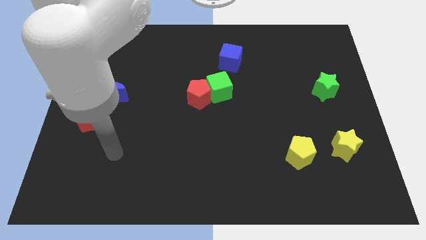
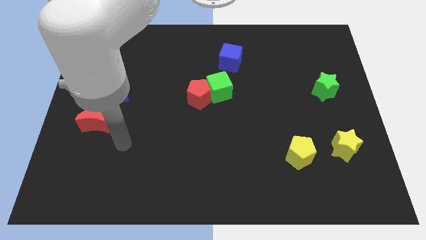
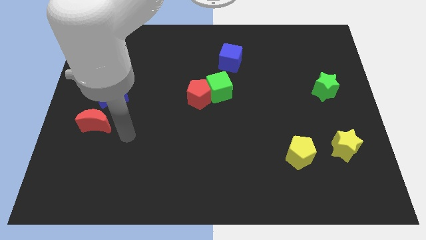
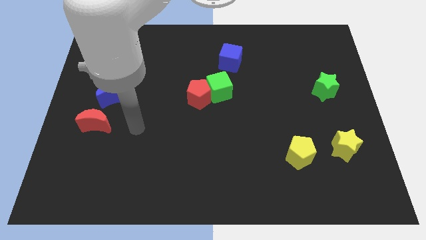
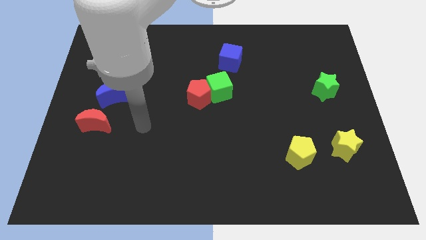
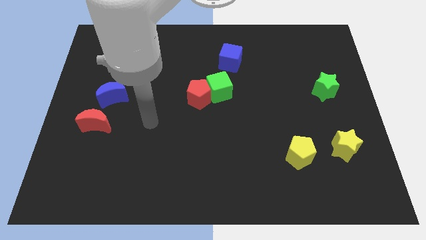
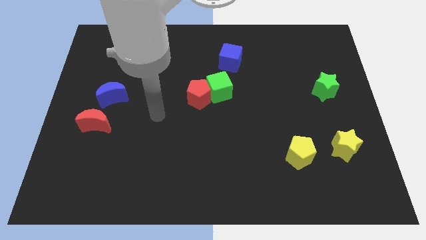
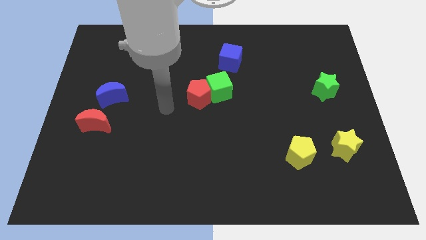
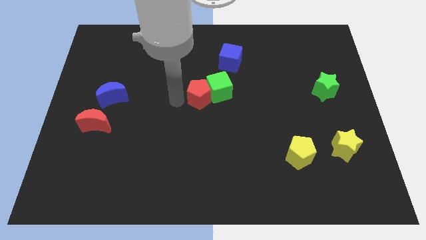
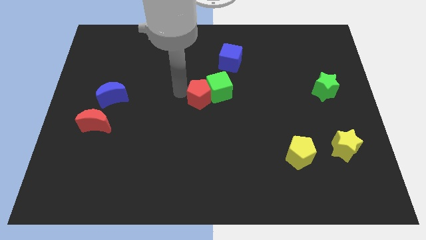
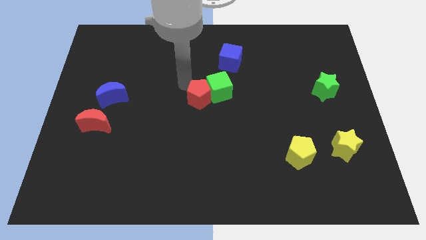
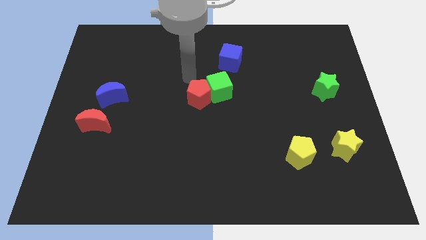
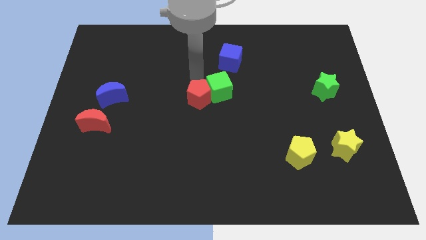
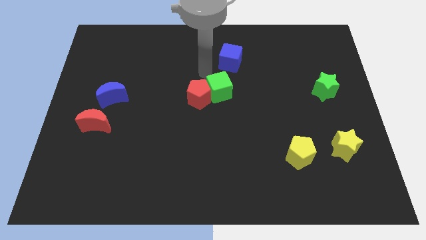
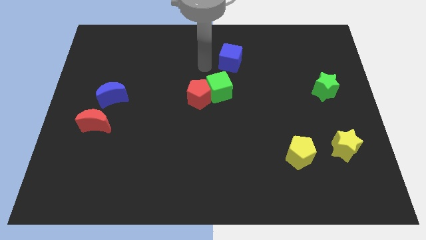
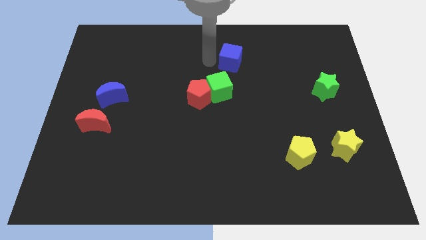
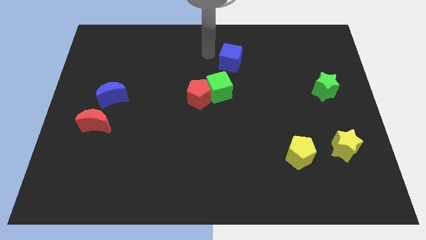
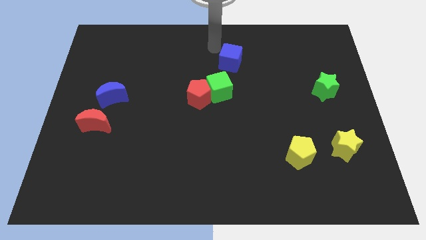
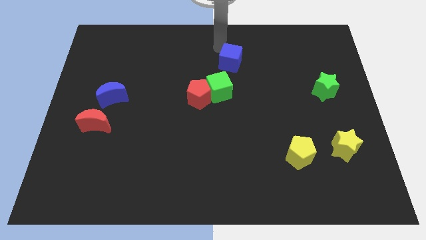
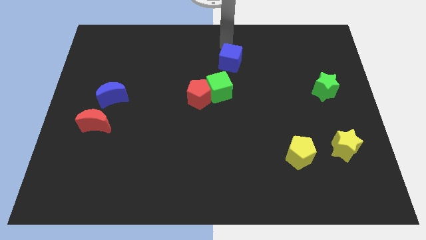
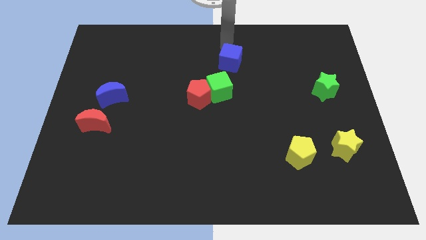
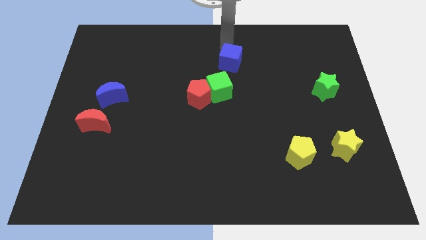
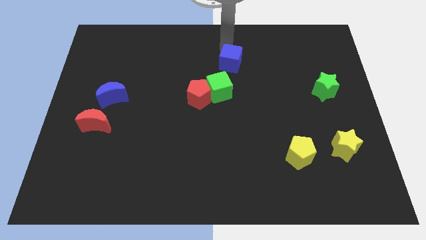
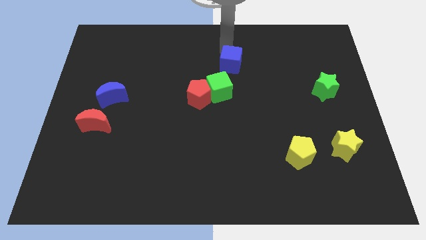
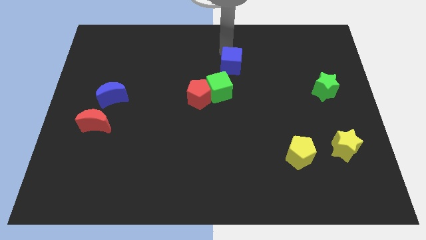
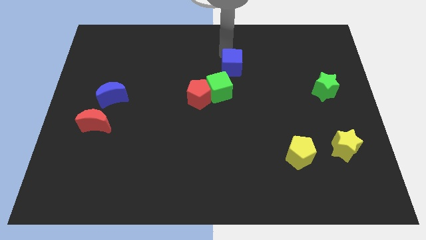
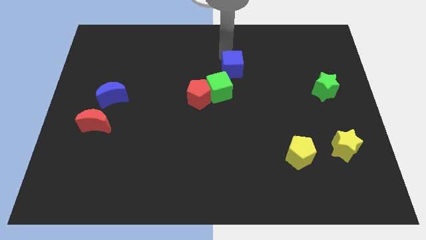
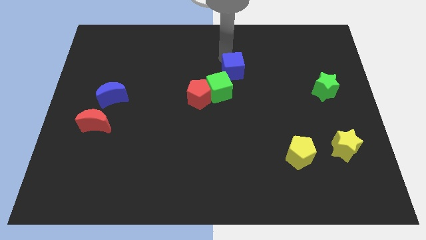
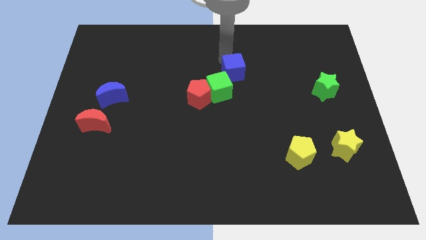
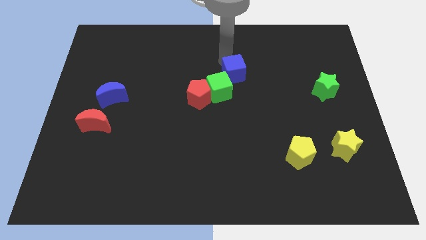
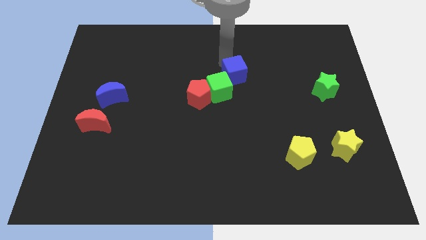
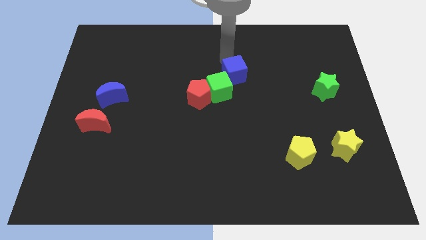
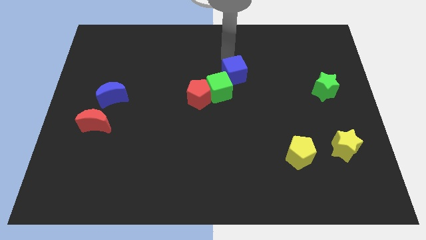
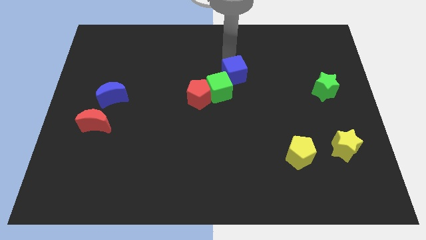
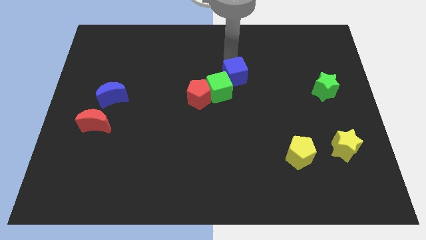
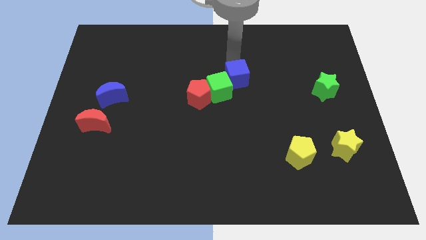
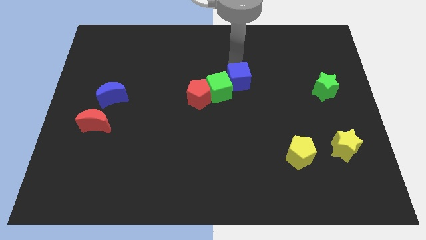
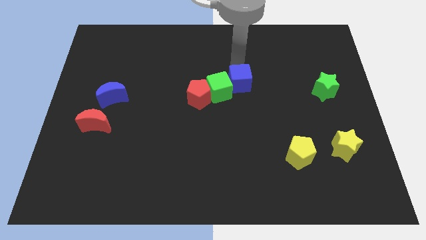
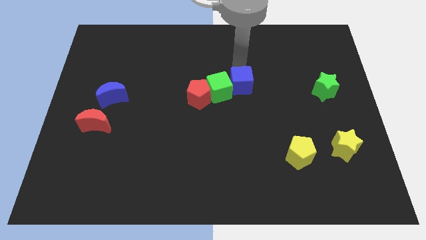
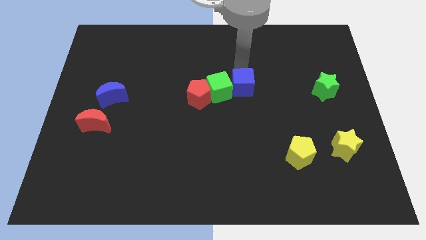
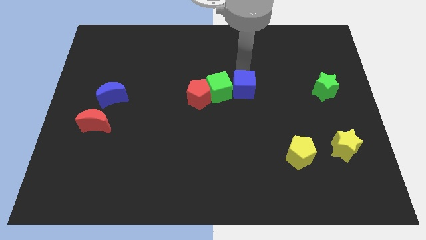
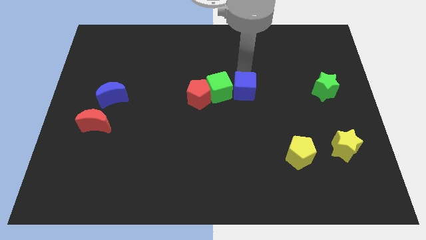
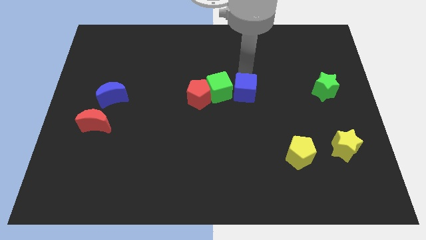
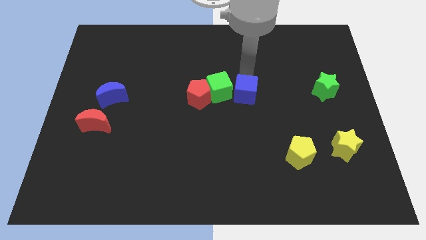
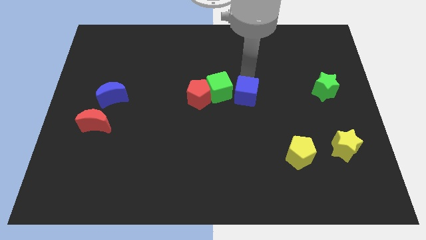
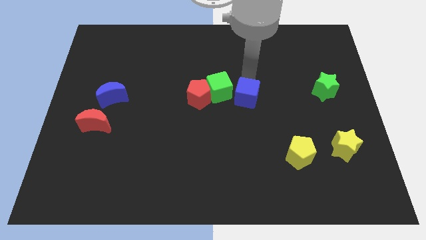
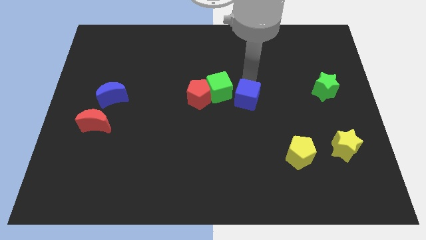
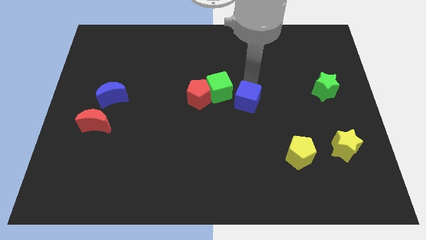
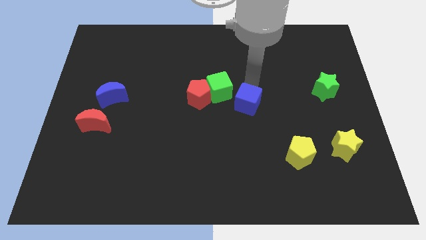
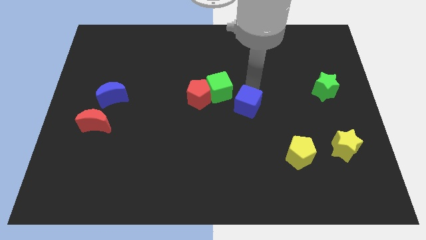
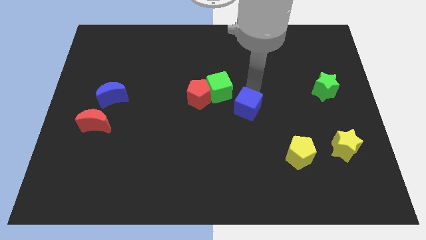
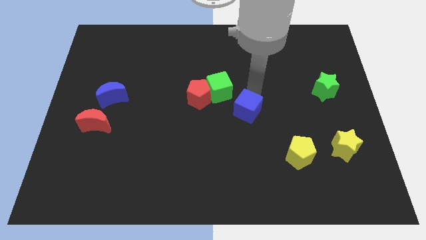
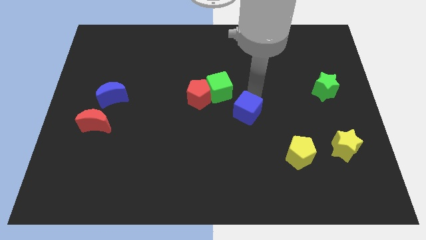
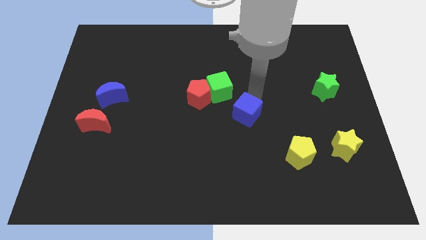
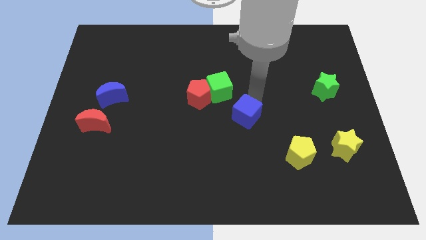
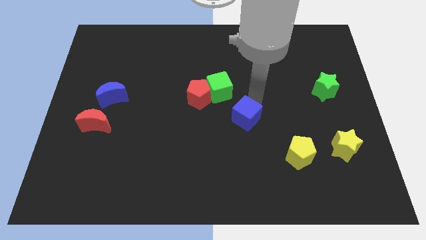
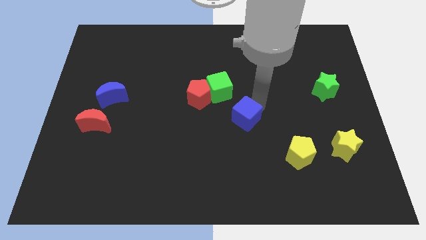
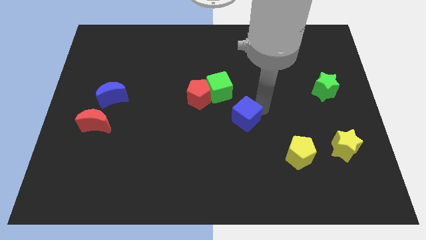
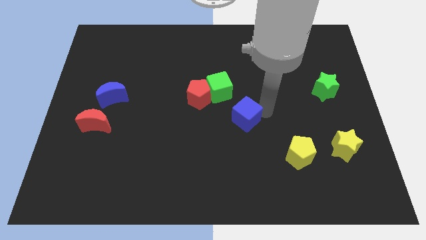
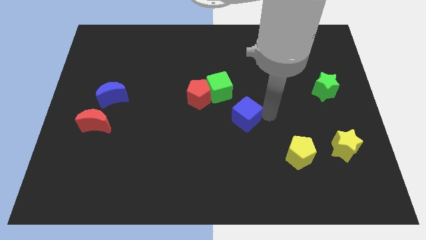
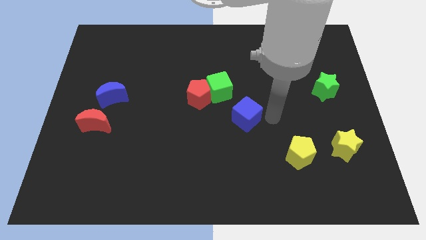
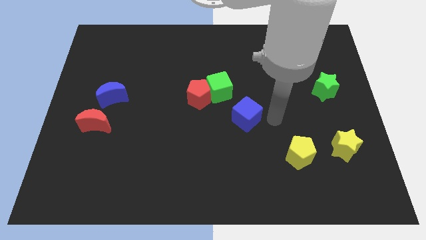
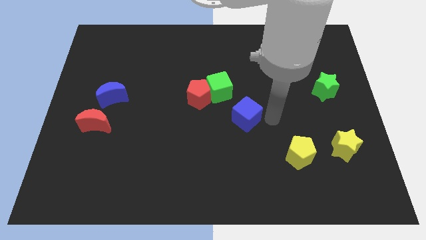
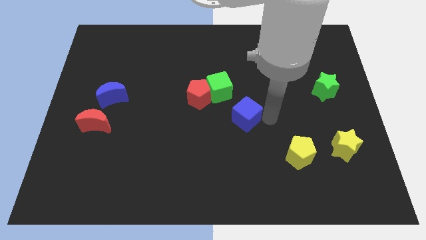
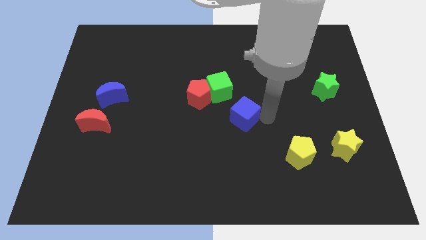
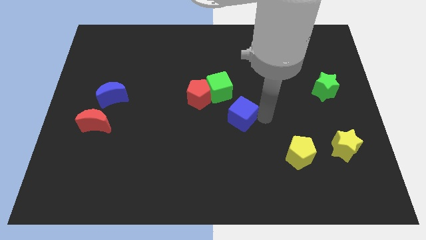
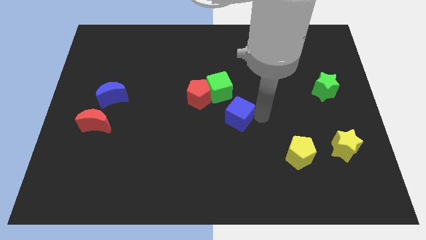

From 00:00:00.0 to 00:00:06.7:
move the blue cube to the bottom of the green cube
